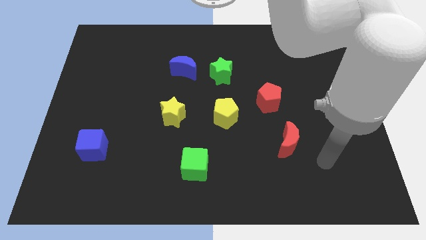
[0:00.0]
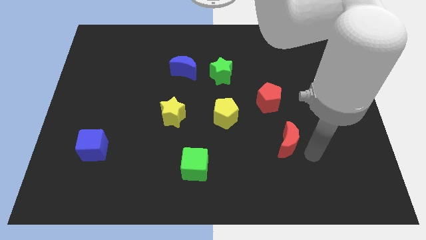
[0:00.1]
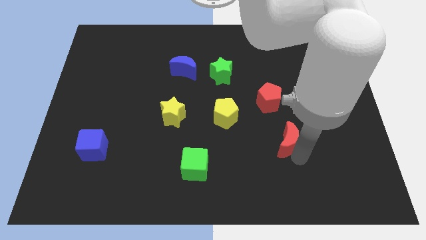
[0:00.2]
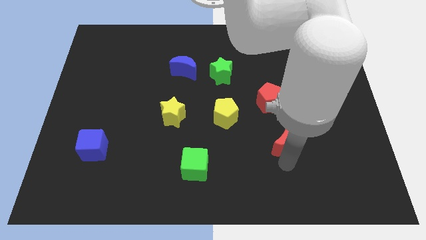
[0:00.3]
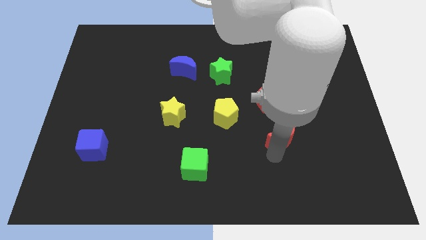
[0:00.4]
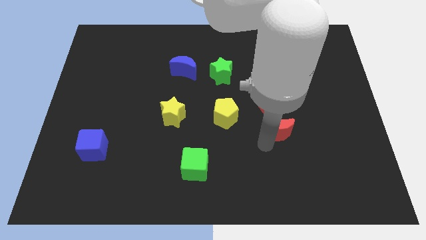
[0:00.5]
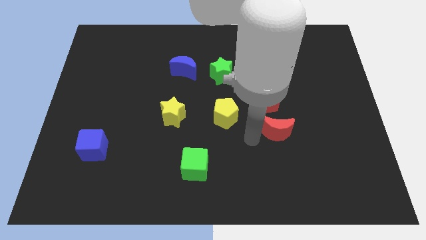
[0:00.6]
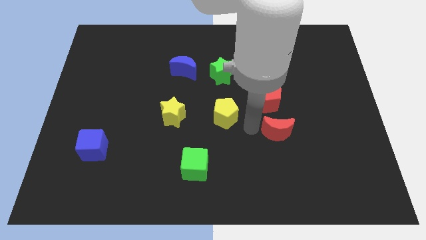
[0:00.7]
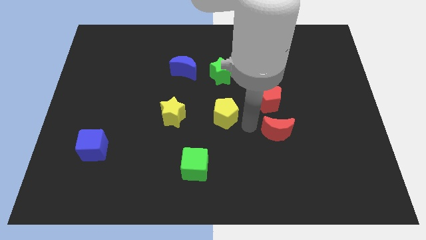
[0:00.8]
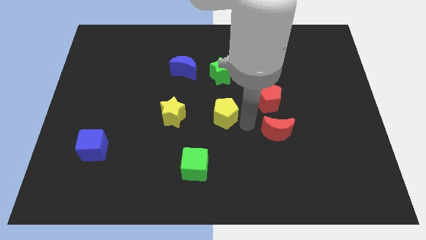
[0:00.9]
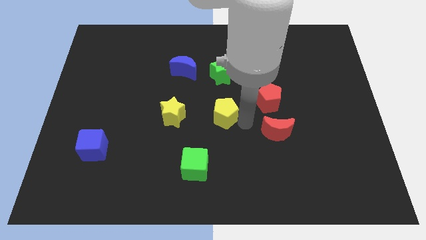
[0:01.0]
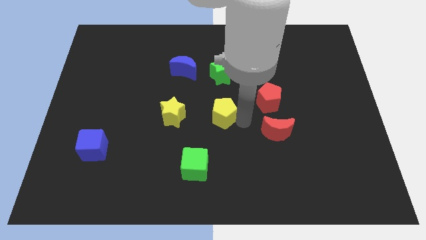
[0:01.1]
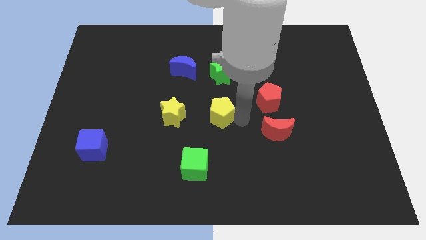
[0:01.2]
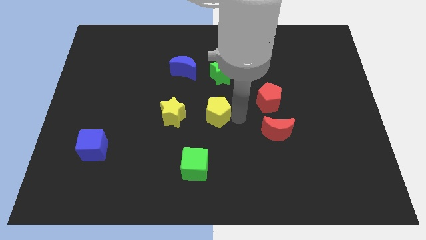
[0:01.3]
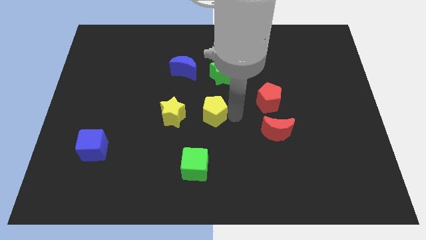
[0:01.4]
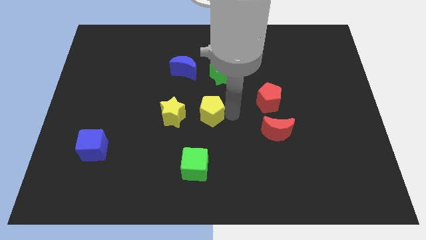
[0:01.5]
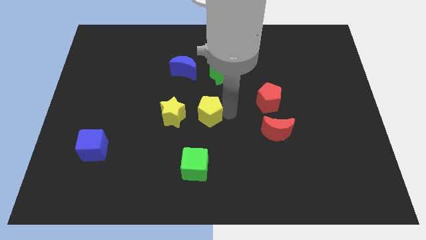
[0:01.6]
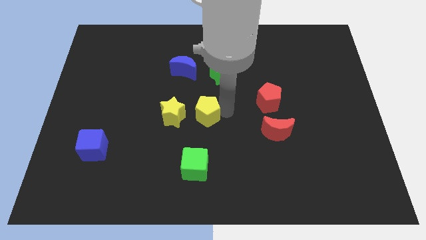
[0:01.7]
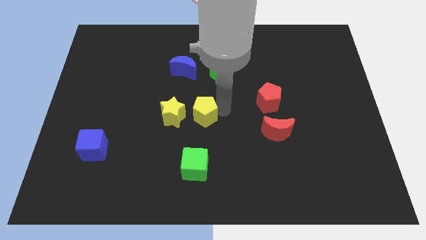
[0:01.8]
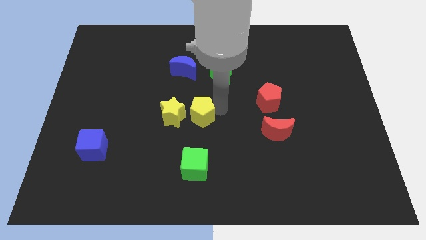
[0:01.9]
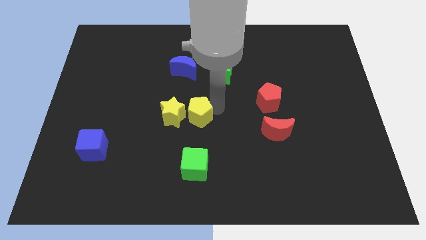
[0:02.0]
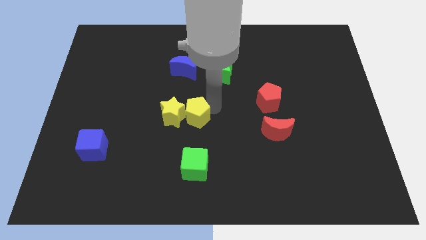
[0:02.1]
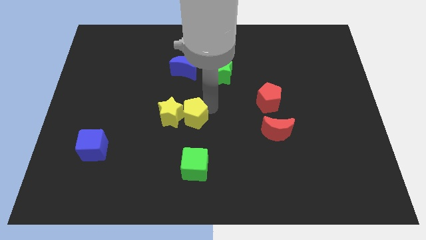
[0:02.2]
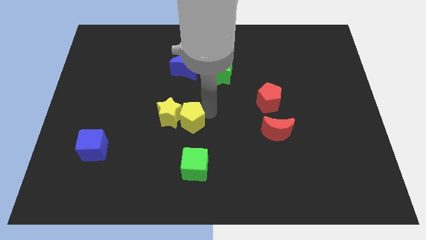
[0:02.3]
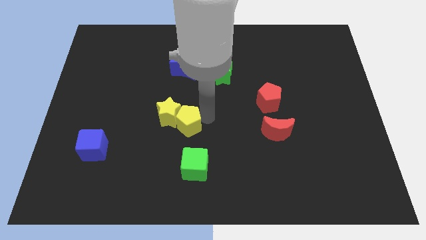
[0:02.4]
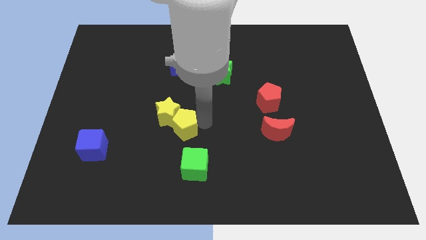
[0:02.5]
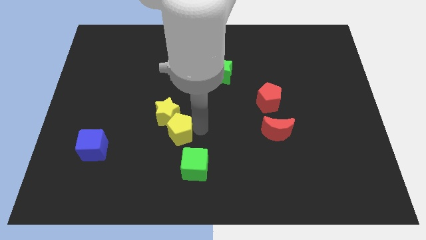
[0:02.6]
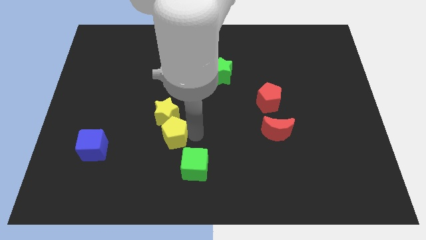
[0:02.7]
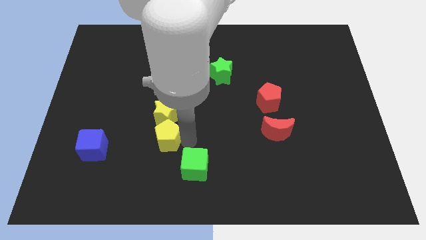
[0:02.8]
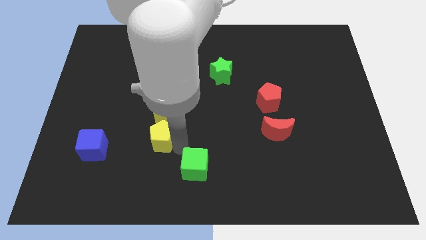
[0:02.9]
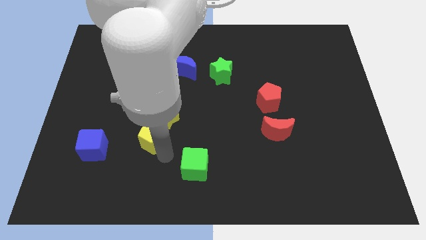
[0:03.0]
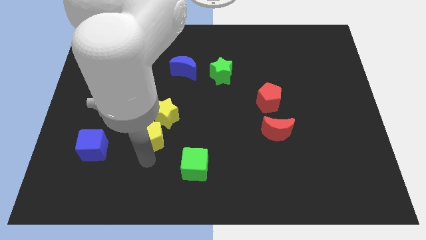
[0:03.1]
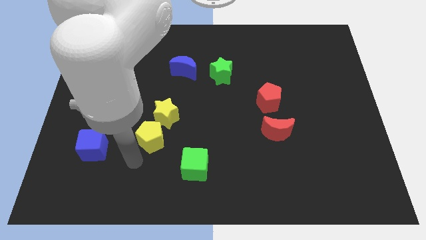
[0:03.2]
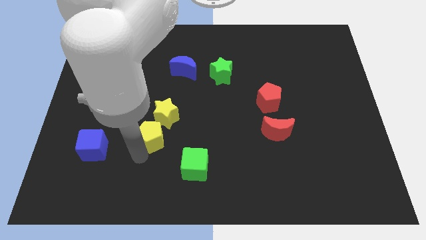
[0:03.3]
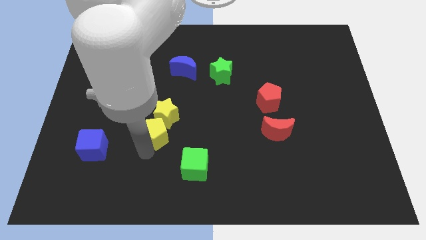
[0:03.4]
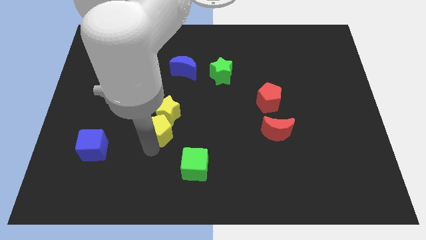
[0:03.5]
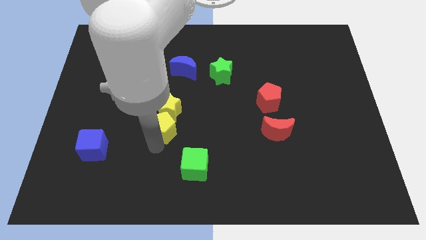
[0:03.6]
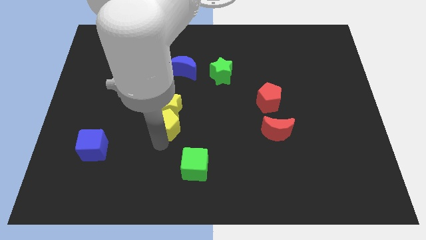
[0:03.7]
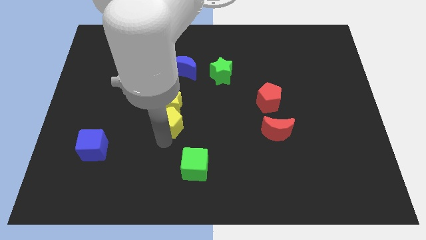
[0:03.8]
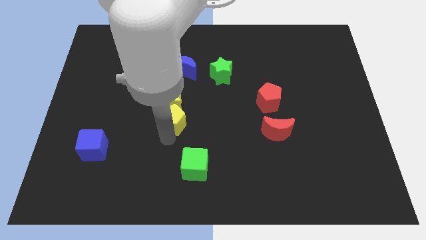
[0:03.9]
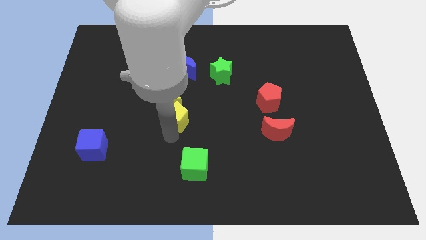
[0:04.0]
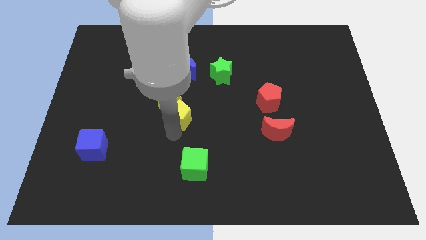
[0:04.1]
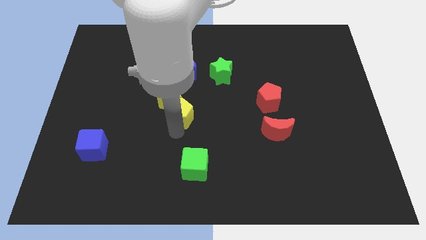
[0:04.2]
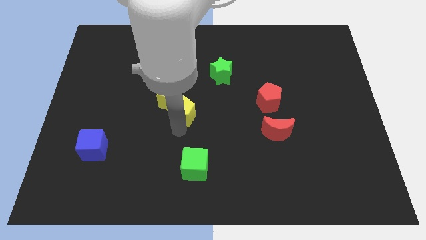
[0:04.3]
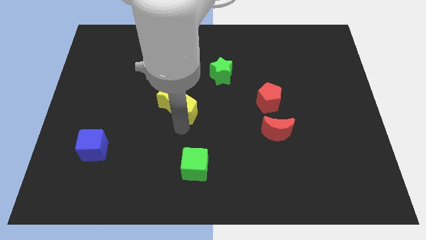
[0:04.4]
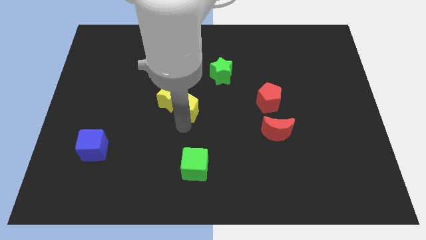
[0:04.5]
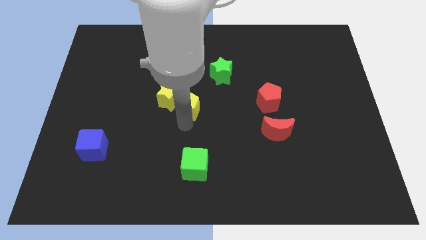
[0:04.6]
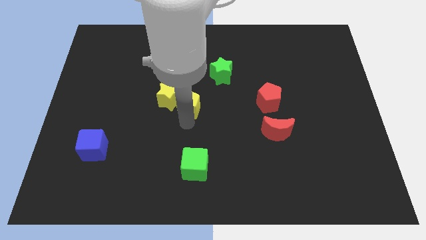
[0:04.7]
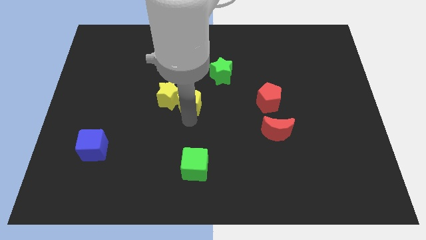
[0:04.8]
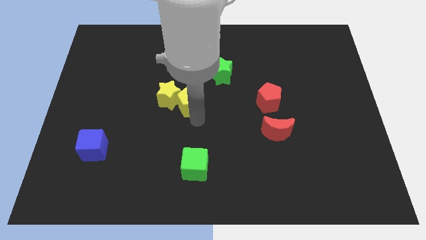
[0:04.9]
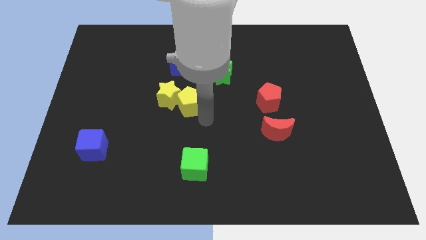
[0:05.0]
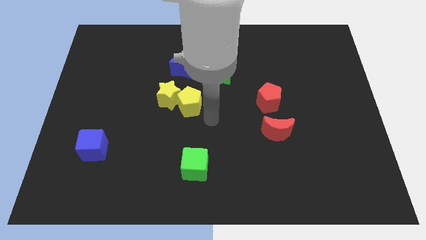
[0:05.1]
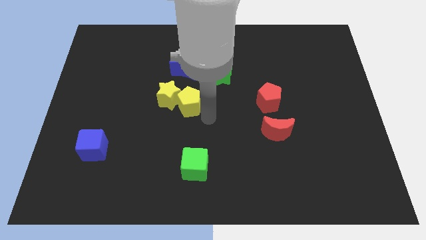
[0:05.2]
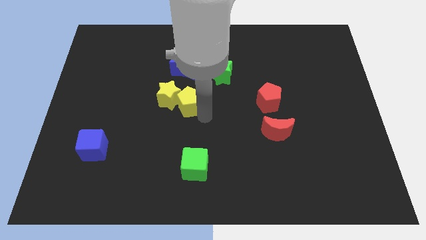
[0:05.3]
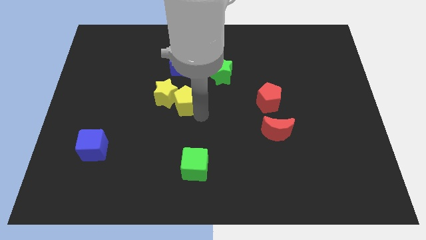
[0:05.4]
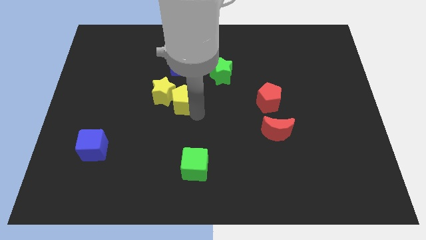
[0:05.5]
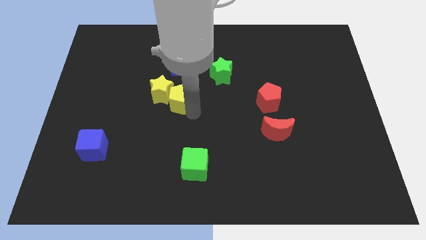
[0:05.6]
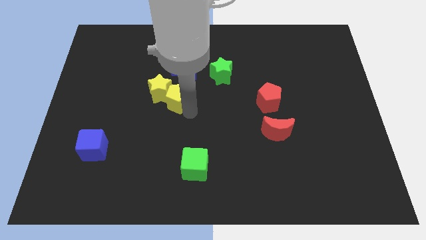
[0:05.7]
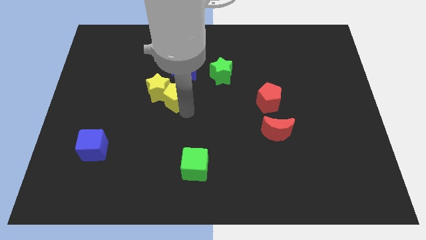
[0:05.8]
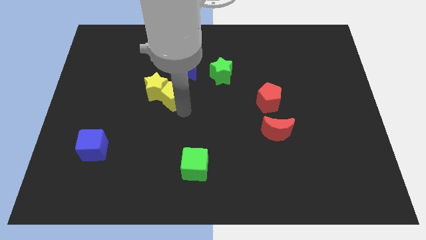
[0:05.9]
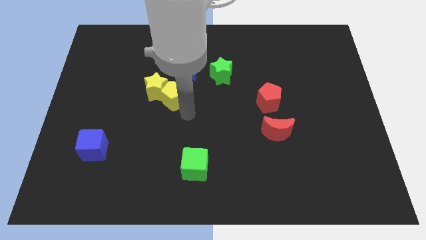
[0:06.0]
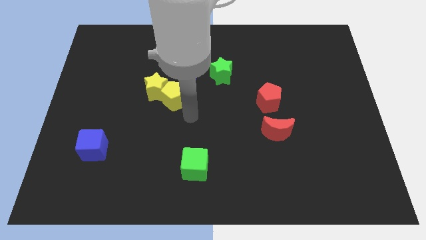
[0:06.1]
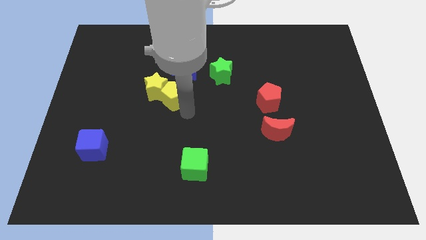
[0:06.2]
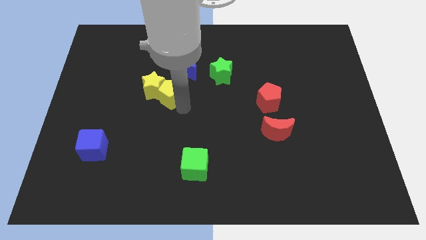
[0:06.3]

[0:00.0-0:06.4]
push the yellow pentagon to the bottom left side of the blue moon

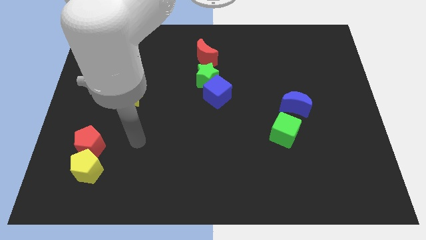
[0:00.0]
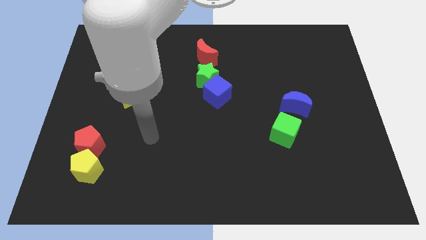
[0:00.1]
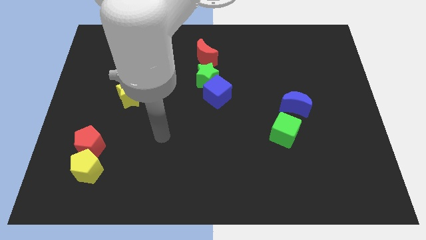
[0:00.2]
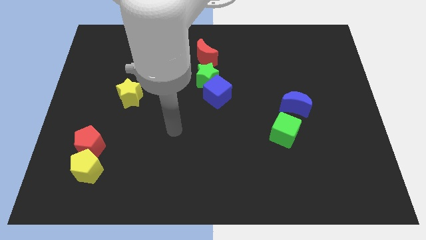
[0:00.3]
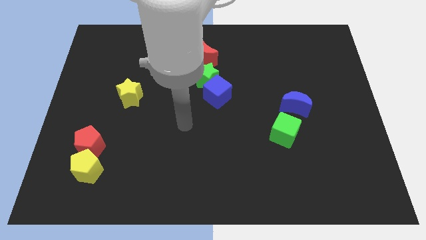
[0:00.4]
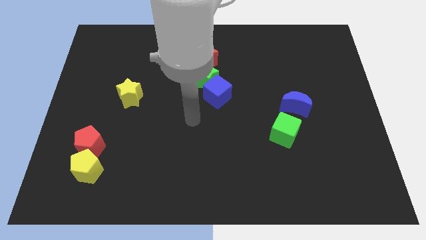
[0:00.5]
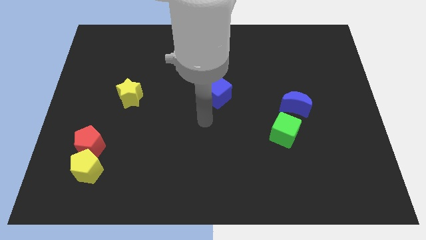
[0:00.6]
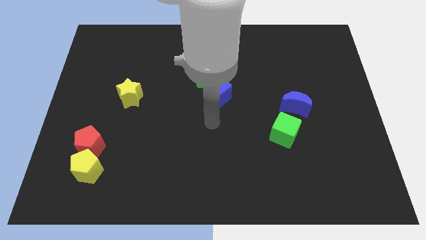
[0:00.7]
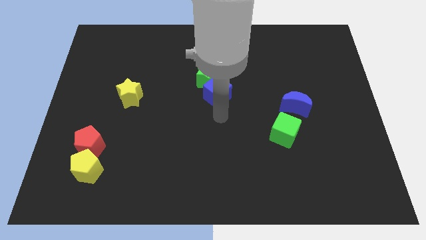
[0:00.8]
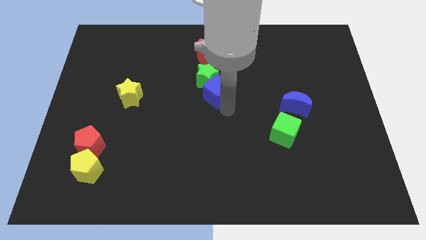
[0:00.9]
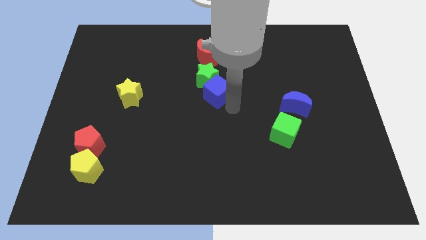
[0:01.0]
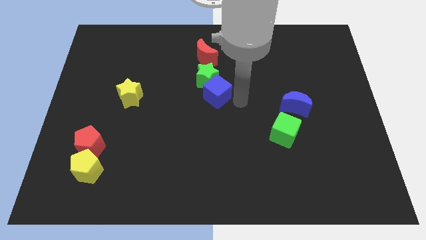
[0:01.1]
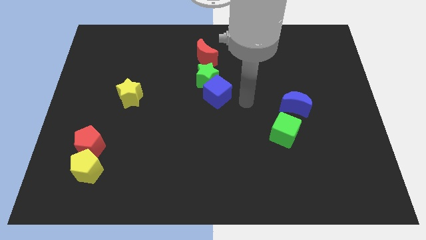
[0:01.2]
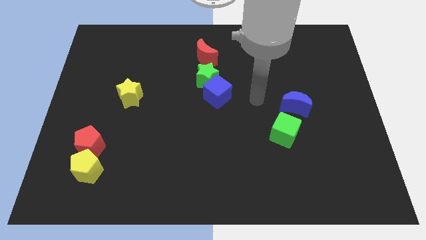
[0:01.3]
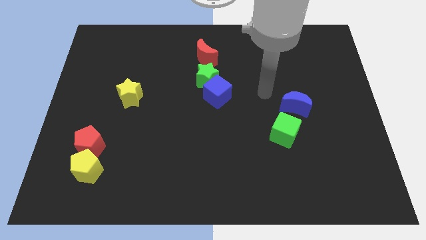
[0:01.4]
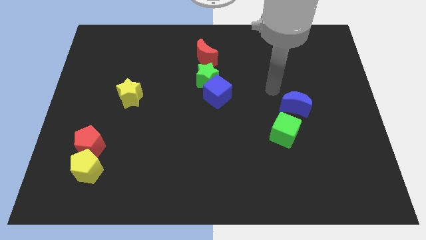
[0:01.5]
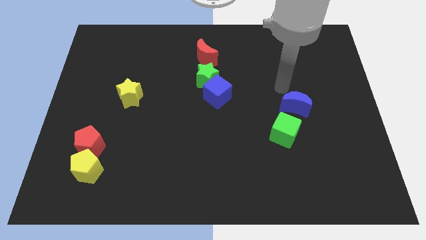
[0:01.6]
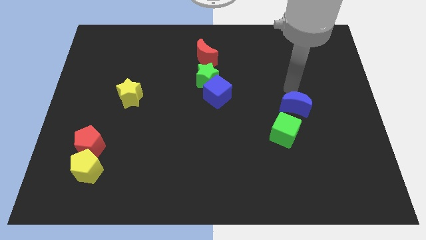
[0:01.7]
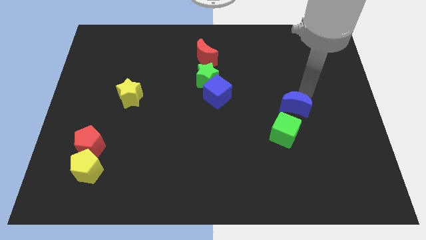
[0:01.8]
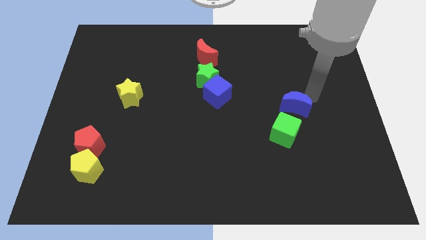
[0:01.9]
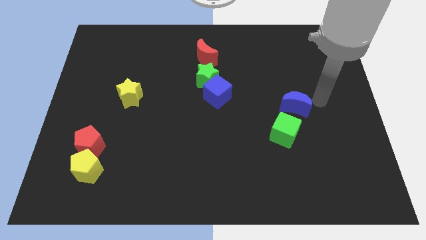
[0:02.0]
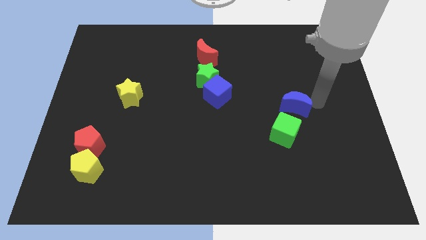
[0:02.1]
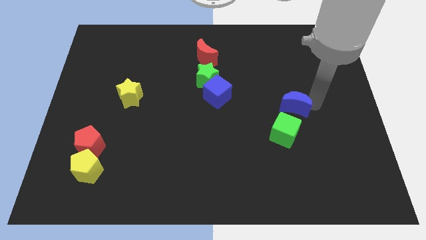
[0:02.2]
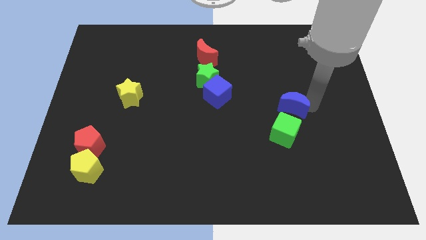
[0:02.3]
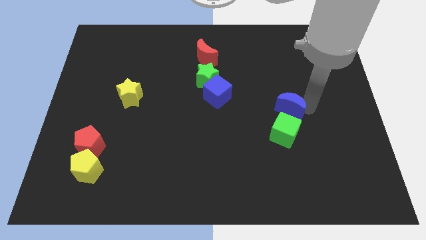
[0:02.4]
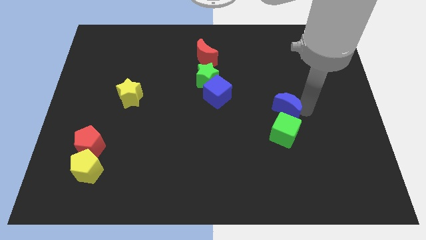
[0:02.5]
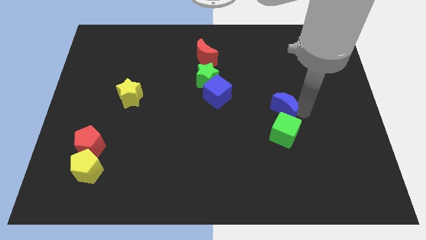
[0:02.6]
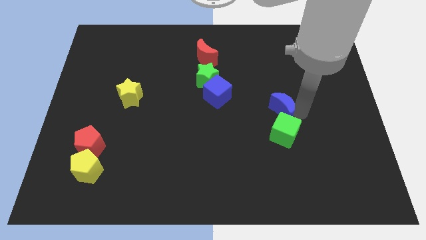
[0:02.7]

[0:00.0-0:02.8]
move the blue moon to the top left of the green cube
